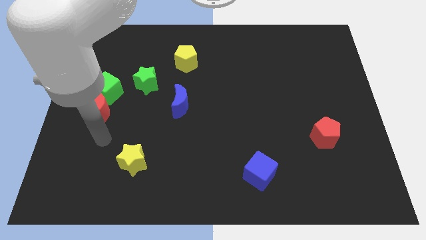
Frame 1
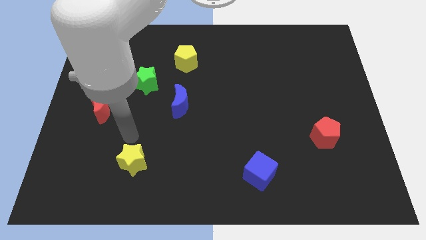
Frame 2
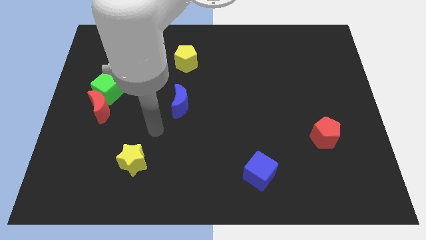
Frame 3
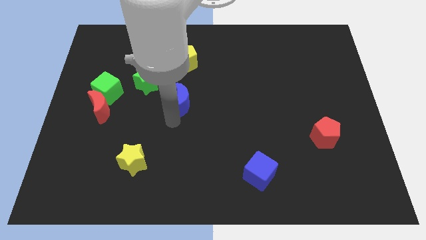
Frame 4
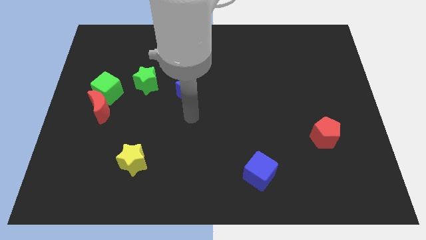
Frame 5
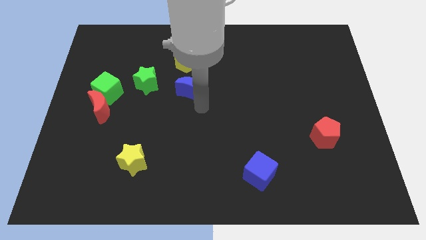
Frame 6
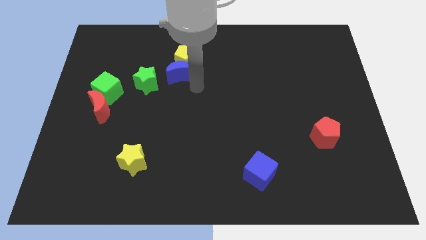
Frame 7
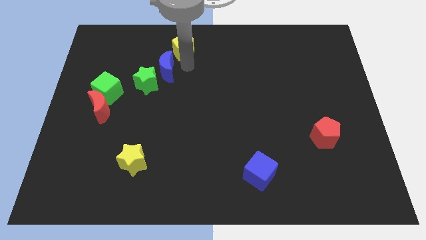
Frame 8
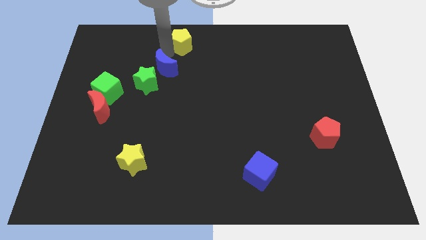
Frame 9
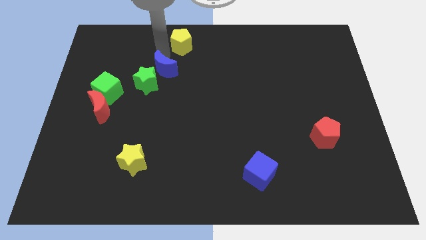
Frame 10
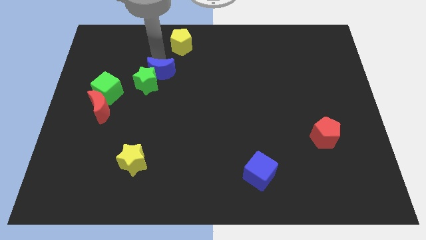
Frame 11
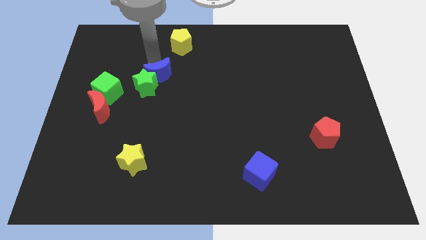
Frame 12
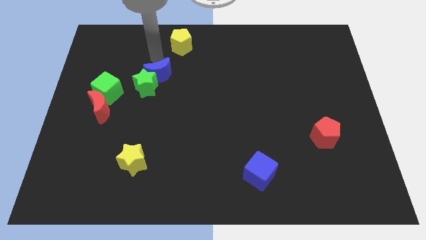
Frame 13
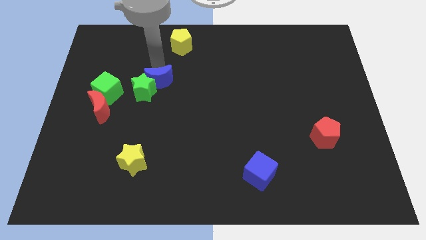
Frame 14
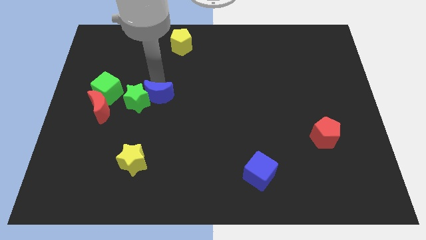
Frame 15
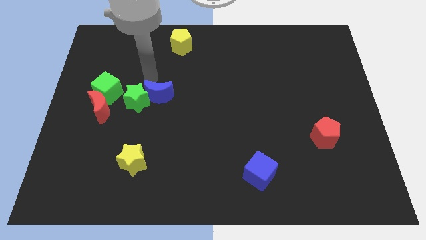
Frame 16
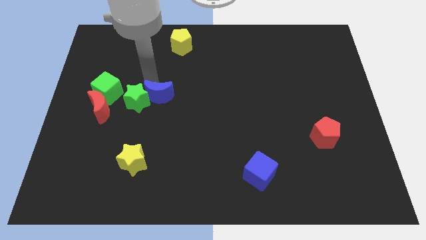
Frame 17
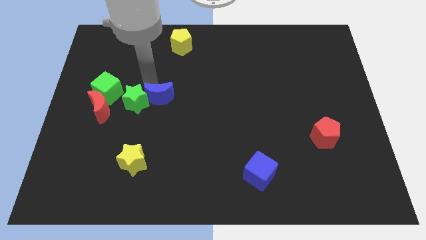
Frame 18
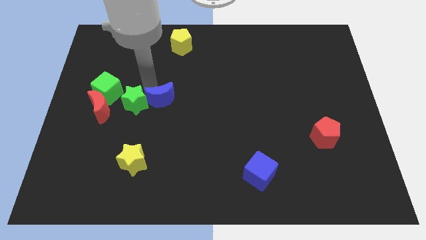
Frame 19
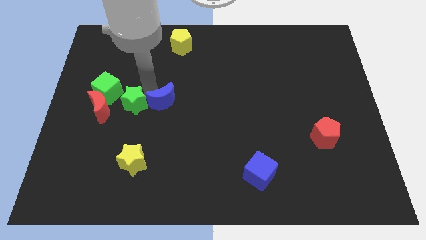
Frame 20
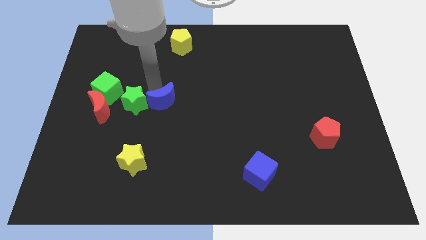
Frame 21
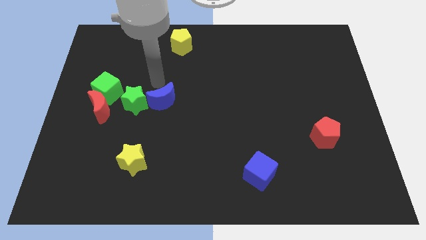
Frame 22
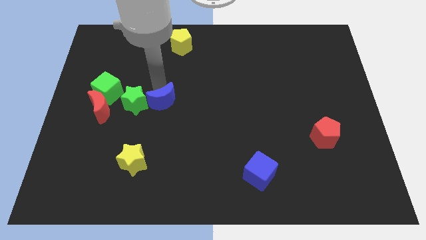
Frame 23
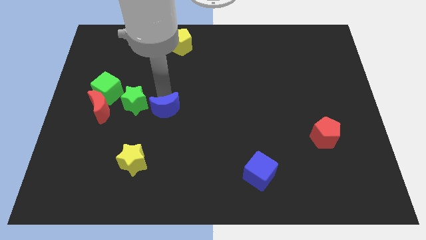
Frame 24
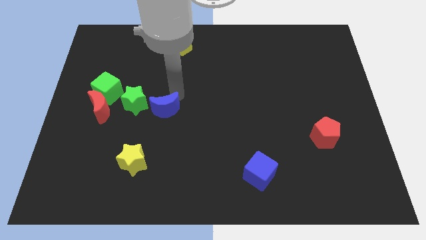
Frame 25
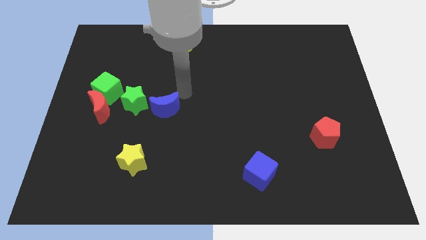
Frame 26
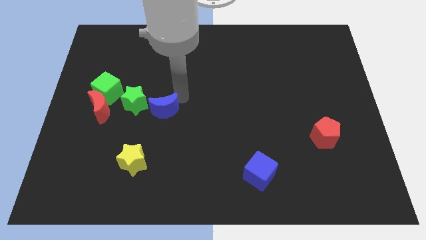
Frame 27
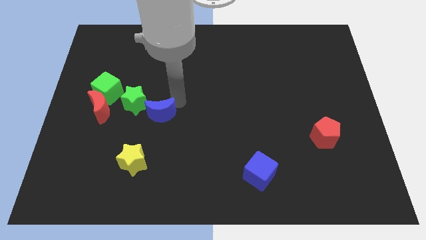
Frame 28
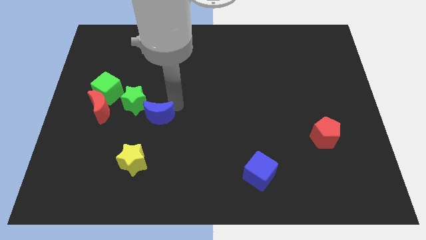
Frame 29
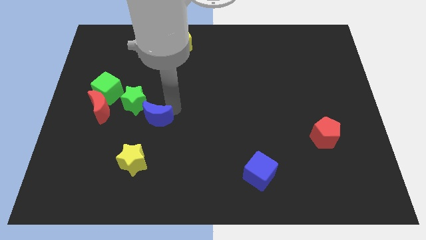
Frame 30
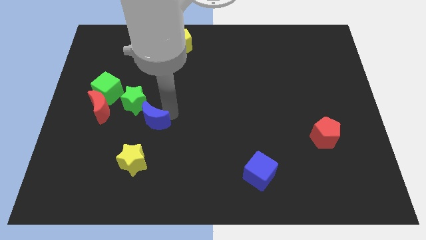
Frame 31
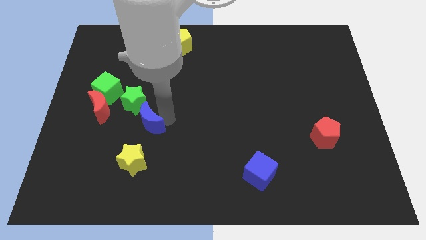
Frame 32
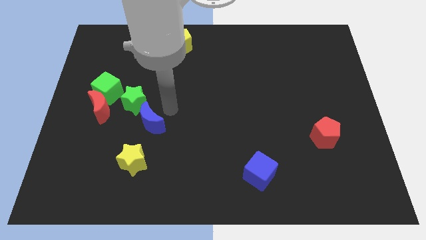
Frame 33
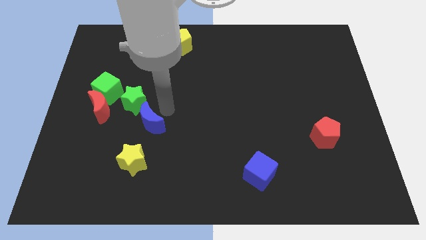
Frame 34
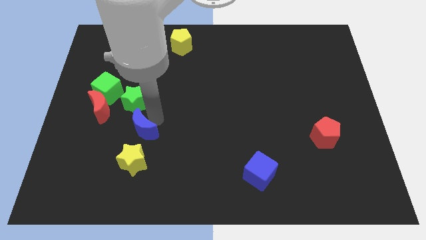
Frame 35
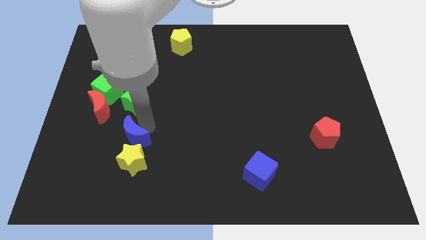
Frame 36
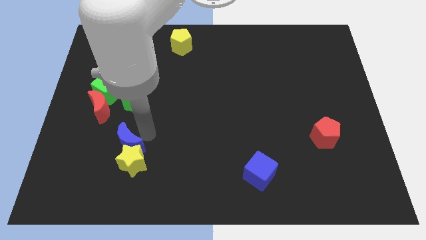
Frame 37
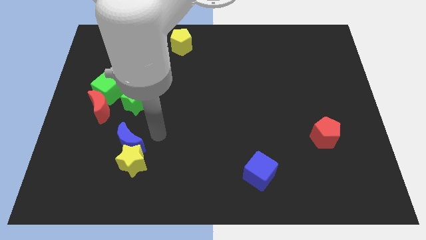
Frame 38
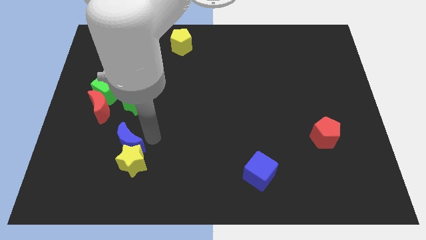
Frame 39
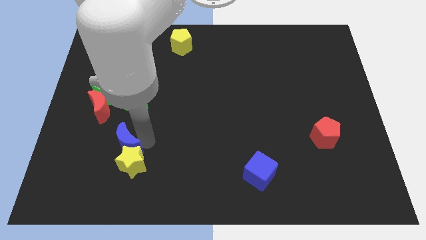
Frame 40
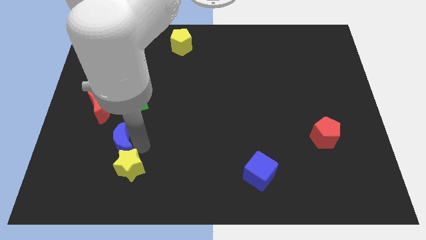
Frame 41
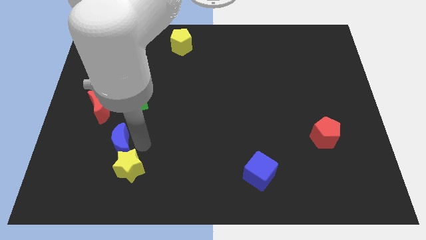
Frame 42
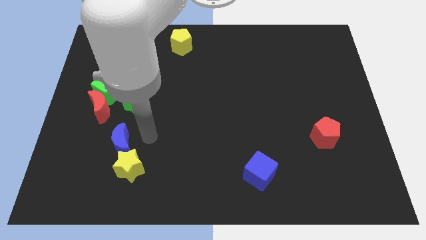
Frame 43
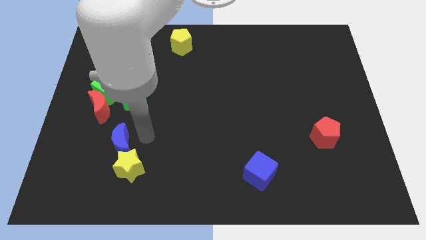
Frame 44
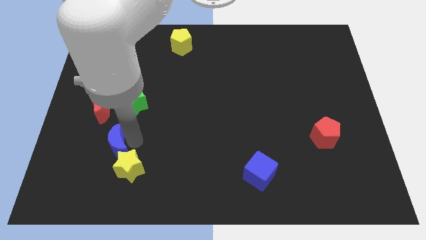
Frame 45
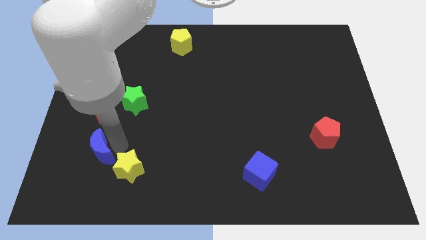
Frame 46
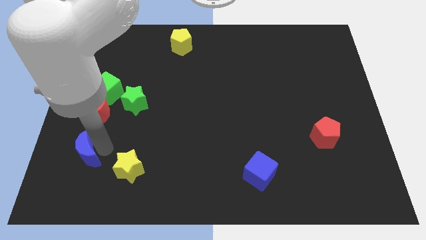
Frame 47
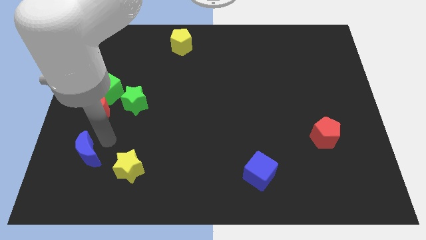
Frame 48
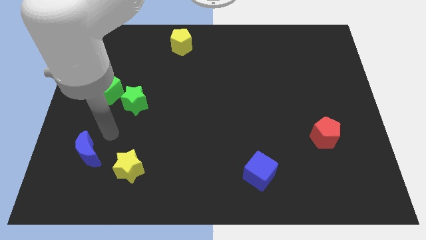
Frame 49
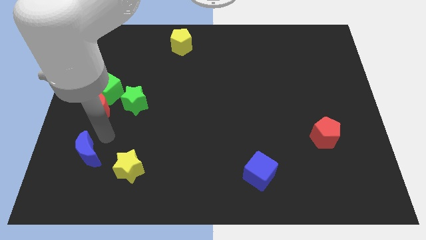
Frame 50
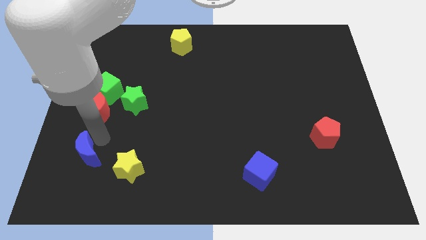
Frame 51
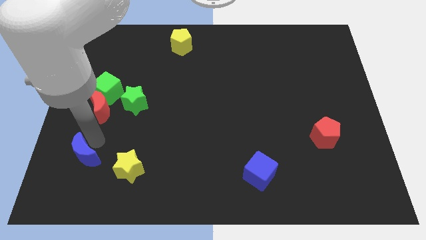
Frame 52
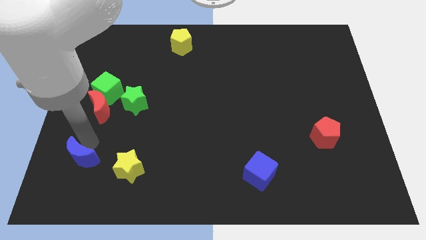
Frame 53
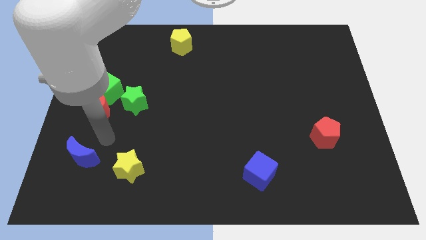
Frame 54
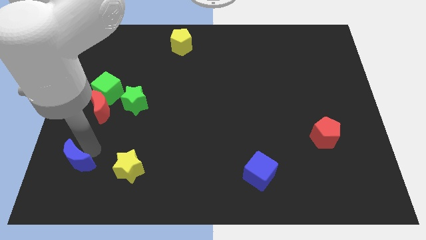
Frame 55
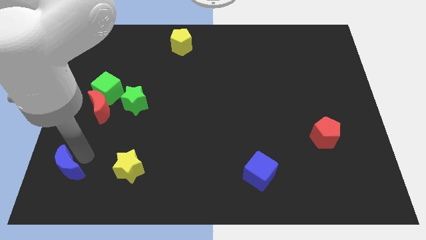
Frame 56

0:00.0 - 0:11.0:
put the blue moon to the lower left corner

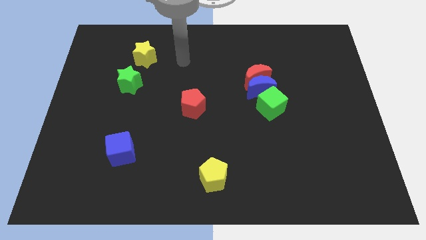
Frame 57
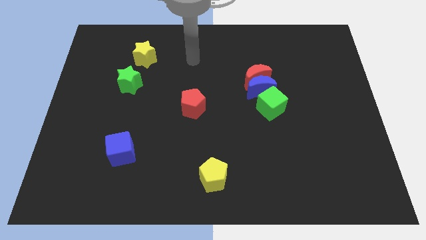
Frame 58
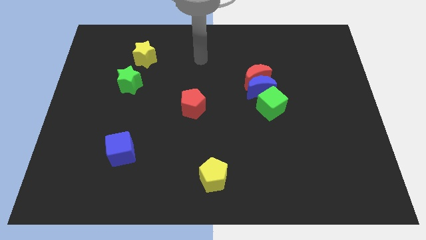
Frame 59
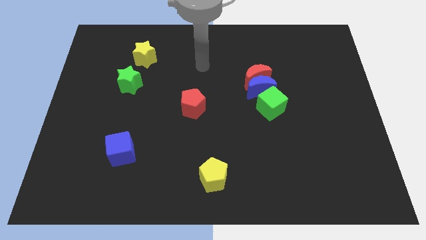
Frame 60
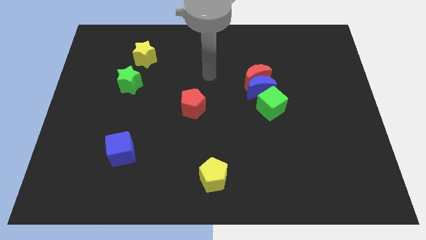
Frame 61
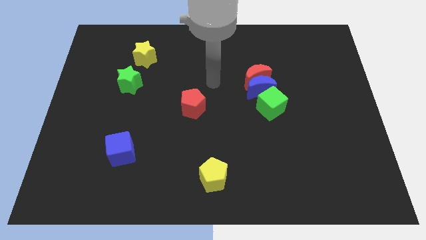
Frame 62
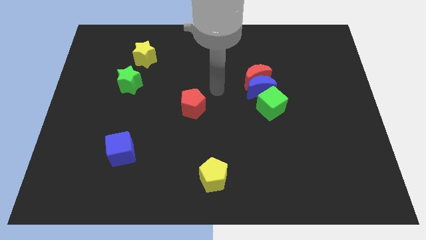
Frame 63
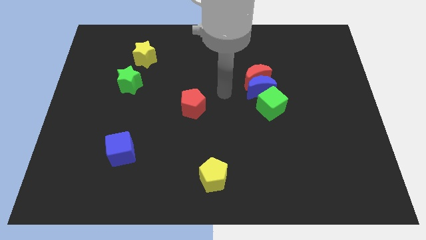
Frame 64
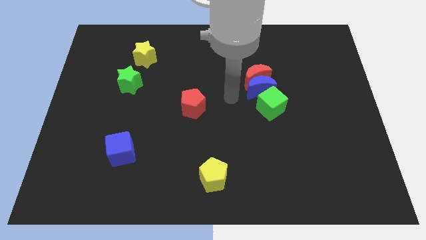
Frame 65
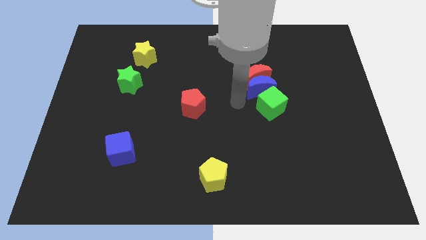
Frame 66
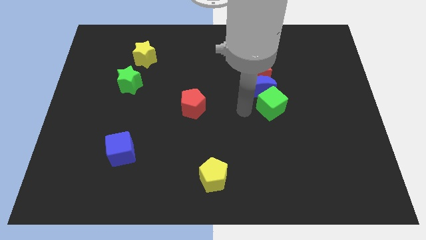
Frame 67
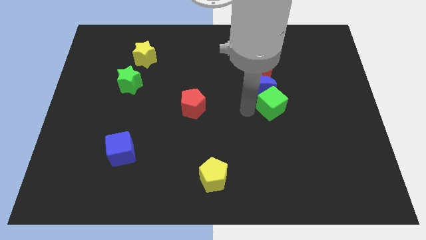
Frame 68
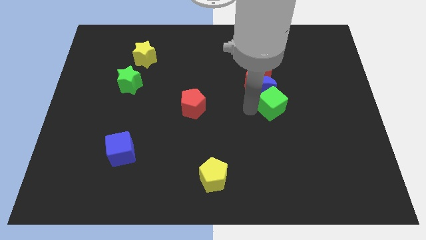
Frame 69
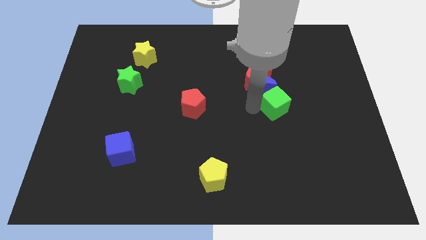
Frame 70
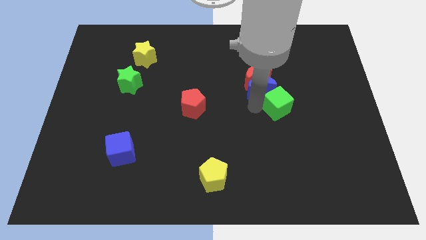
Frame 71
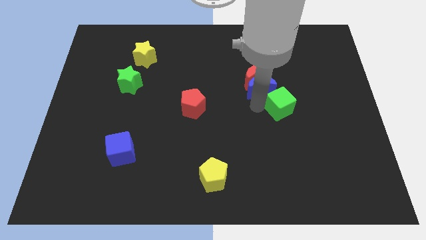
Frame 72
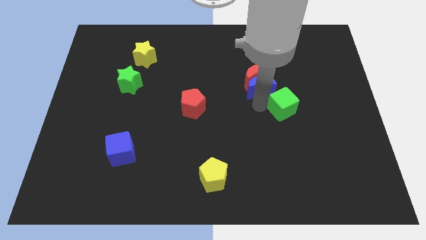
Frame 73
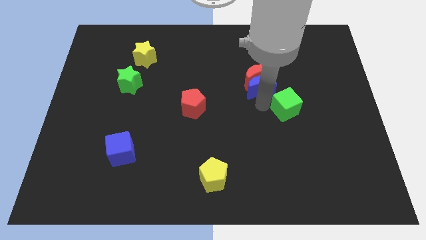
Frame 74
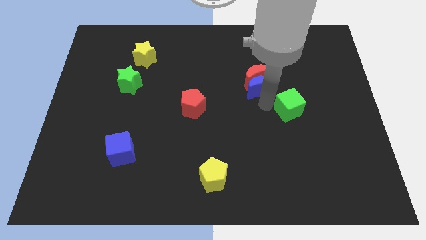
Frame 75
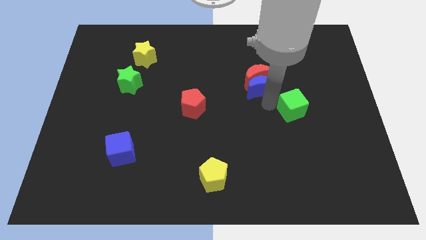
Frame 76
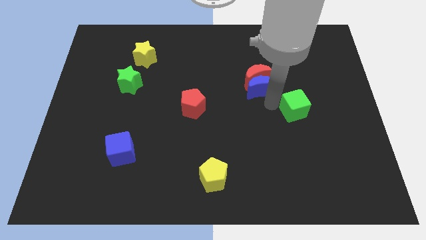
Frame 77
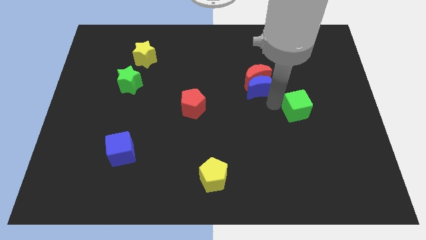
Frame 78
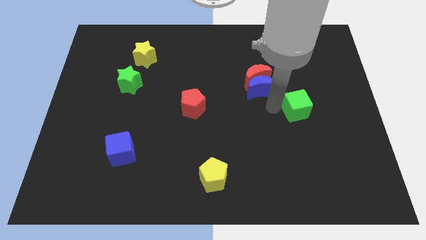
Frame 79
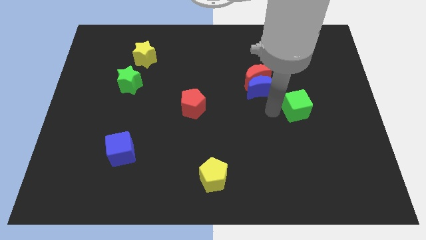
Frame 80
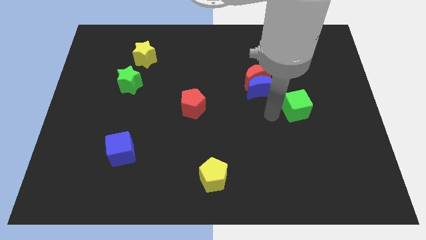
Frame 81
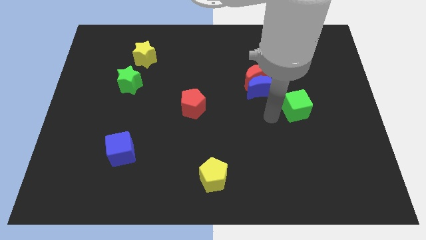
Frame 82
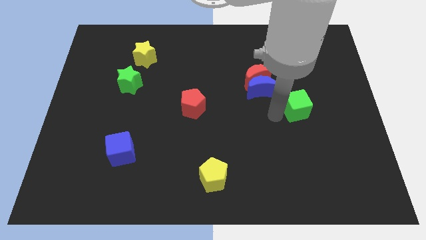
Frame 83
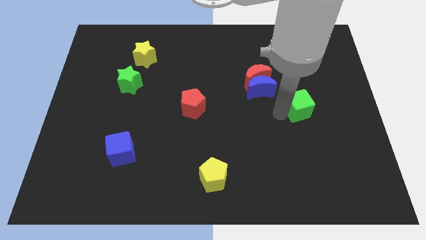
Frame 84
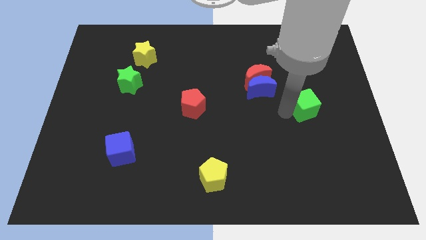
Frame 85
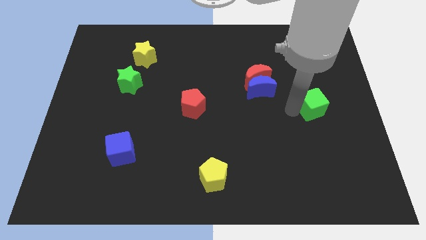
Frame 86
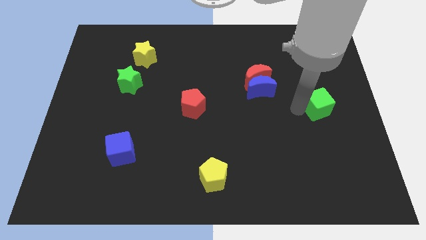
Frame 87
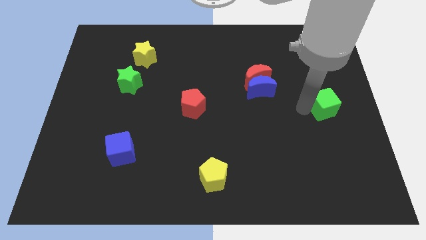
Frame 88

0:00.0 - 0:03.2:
push the green cube to the center right
